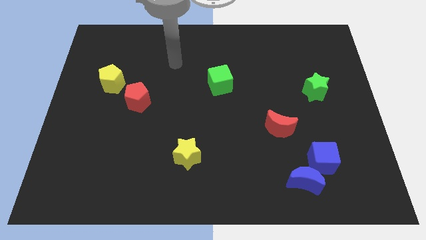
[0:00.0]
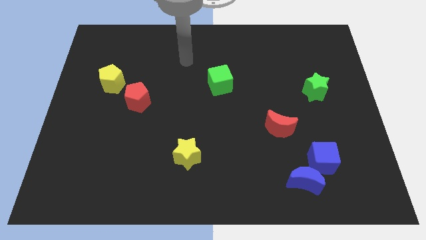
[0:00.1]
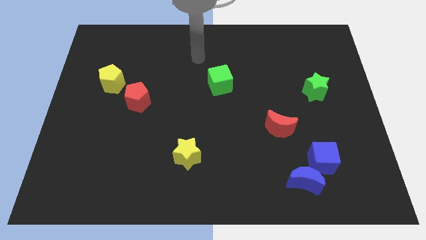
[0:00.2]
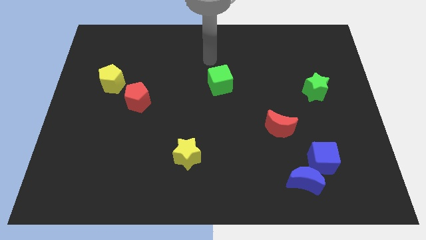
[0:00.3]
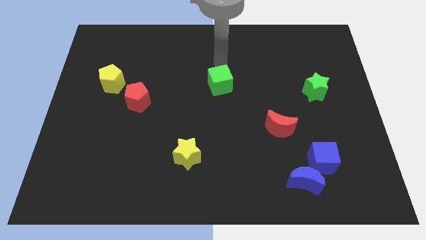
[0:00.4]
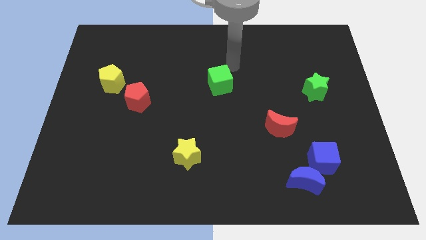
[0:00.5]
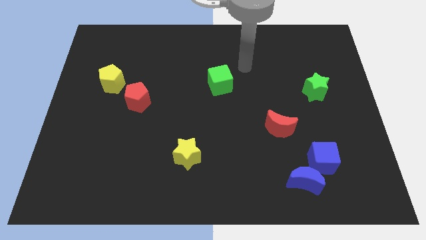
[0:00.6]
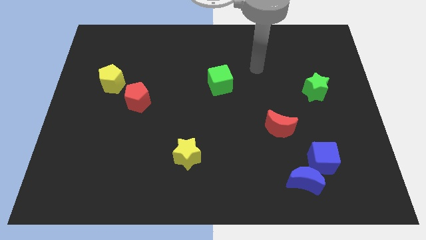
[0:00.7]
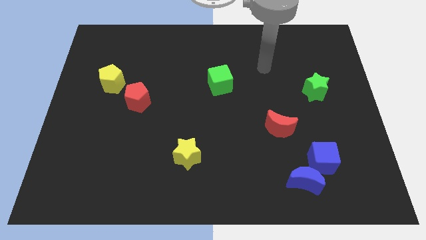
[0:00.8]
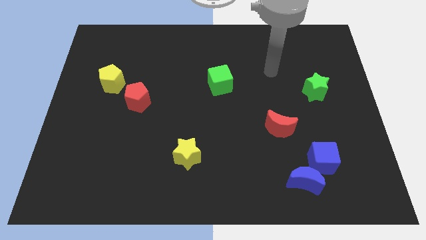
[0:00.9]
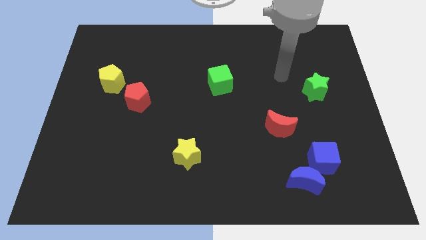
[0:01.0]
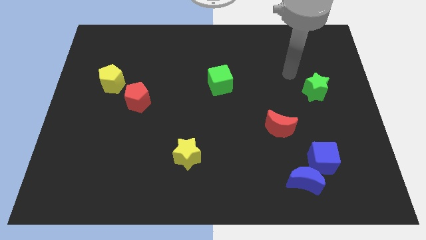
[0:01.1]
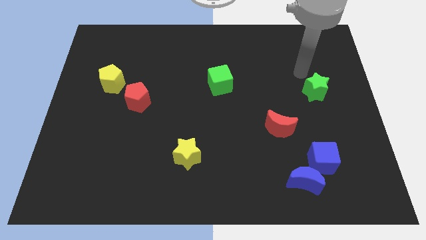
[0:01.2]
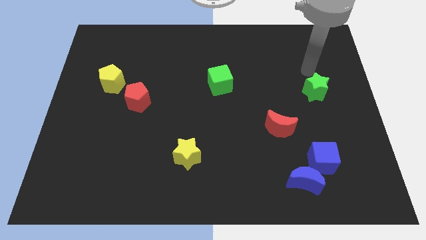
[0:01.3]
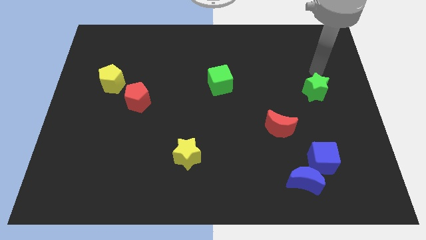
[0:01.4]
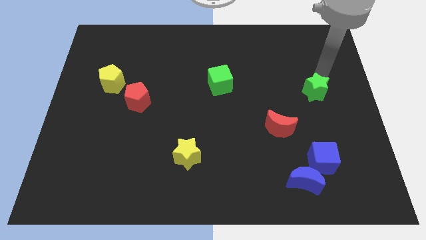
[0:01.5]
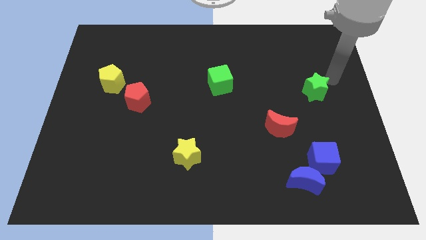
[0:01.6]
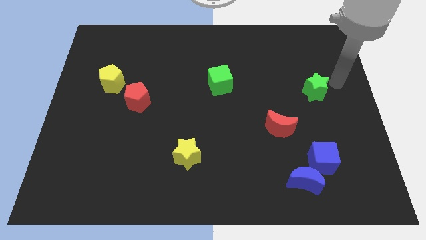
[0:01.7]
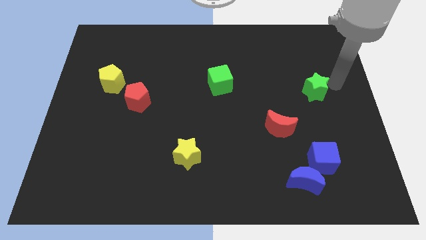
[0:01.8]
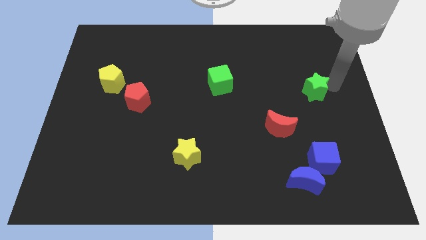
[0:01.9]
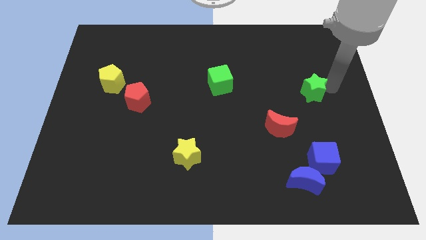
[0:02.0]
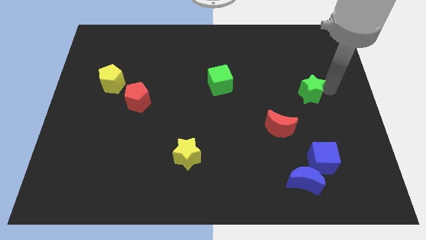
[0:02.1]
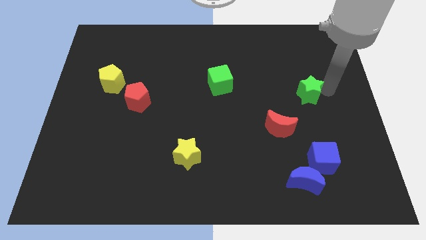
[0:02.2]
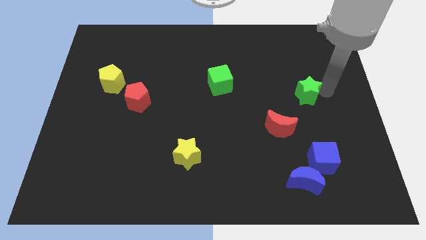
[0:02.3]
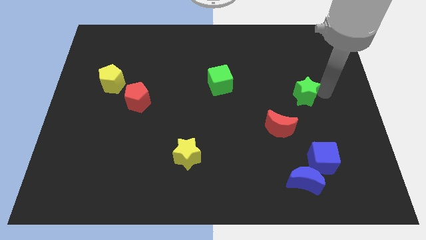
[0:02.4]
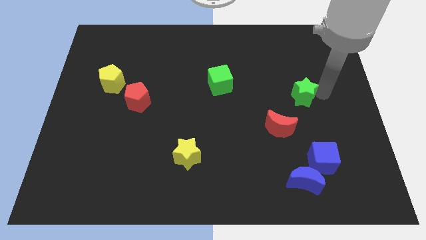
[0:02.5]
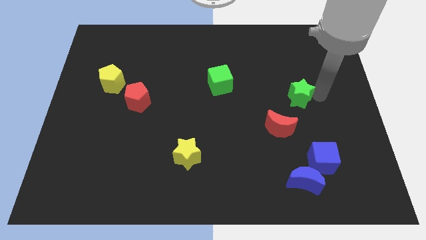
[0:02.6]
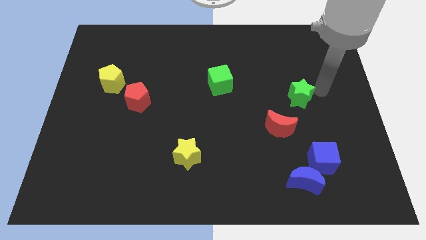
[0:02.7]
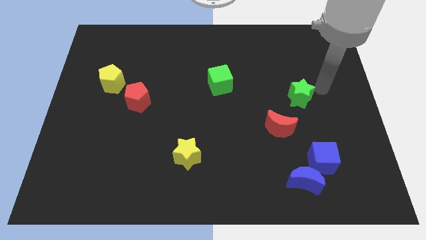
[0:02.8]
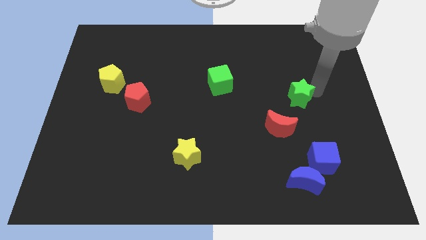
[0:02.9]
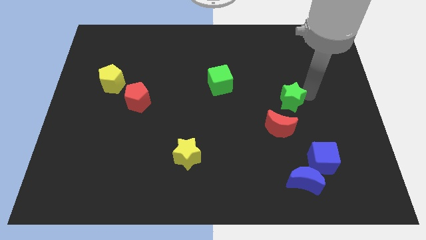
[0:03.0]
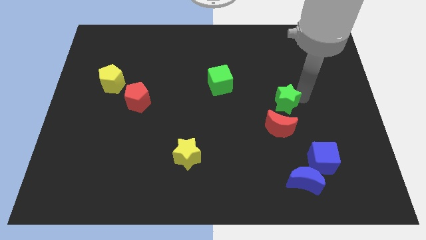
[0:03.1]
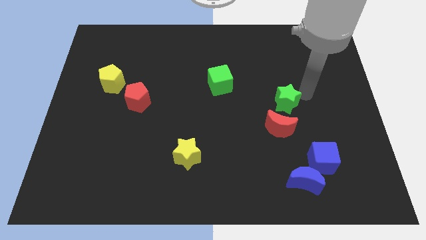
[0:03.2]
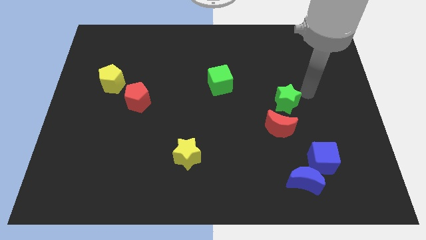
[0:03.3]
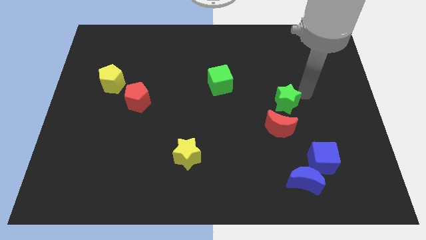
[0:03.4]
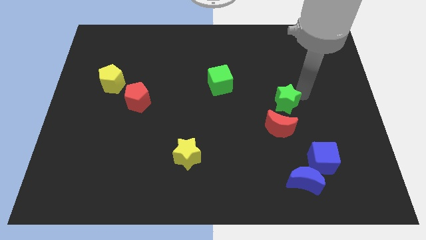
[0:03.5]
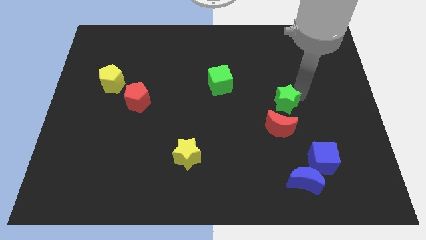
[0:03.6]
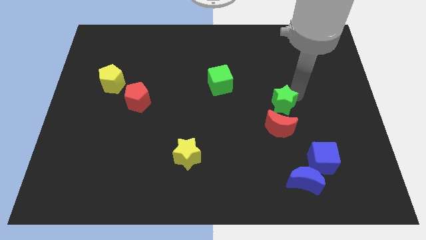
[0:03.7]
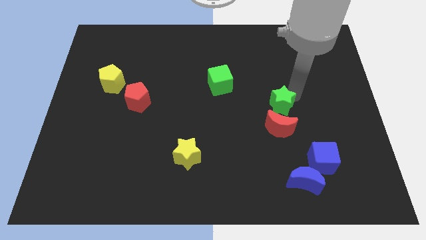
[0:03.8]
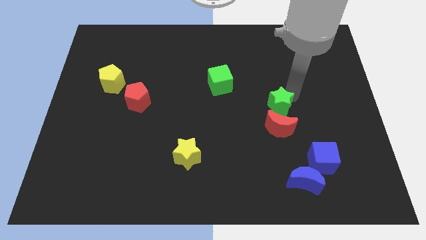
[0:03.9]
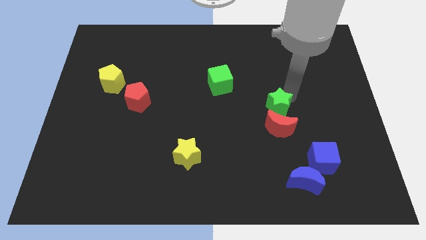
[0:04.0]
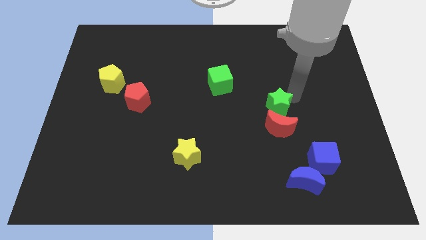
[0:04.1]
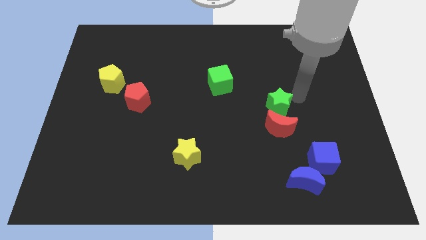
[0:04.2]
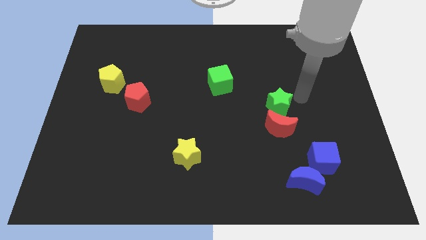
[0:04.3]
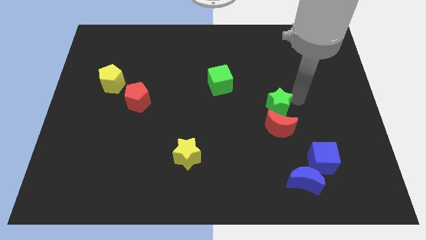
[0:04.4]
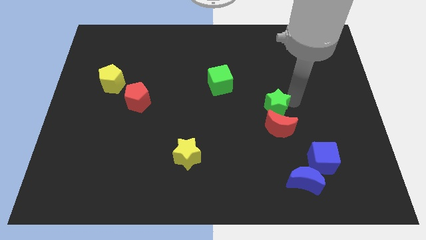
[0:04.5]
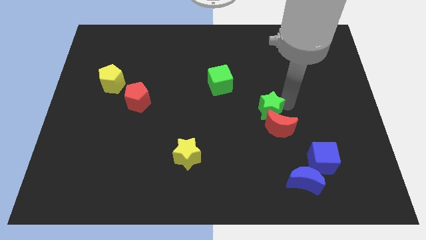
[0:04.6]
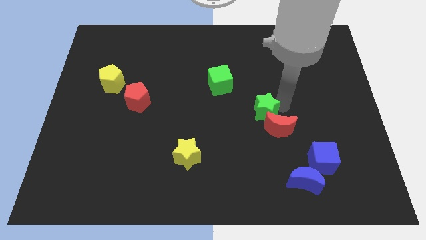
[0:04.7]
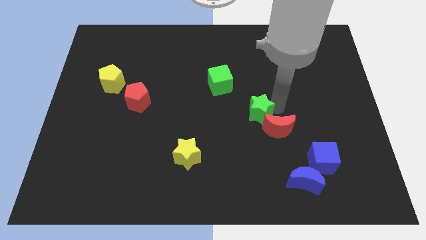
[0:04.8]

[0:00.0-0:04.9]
slide the green star left of the red moon

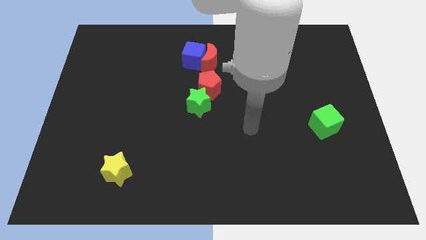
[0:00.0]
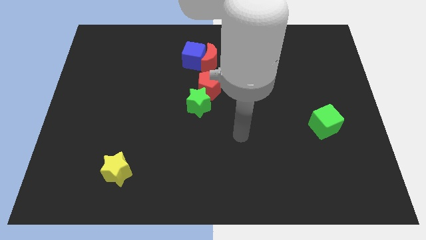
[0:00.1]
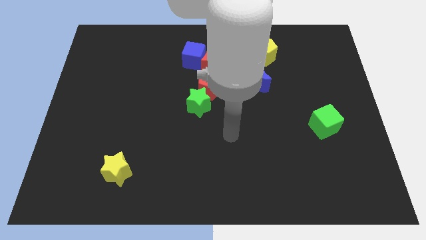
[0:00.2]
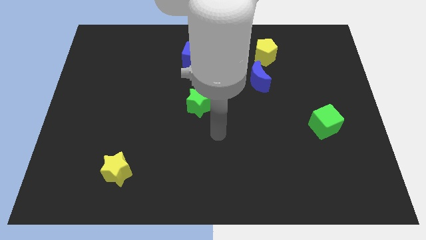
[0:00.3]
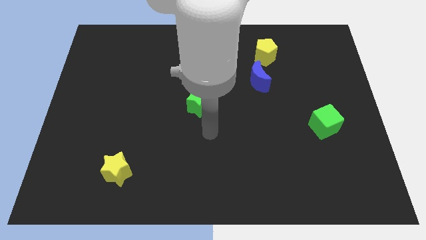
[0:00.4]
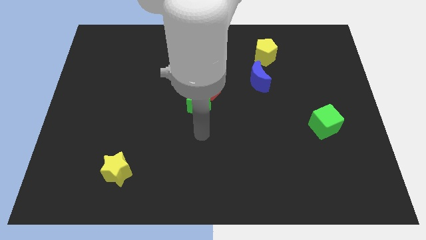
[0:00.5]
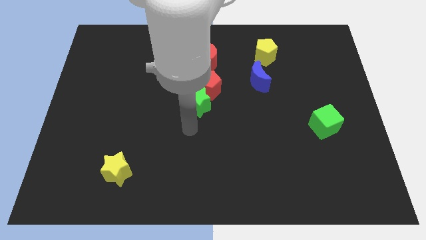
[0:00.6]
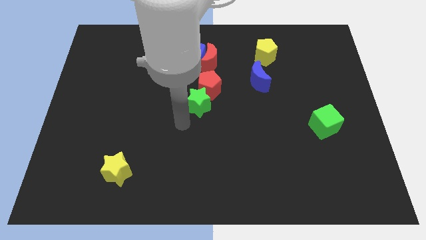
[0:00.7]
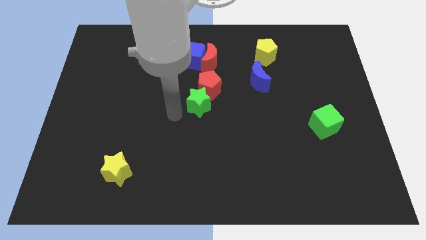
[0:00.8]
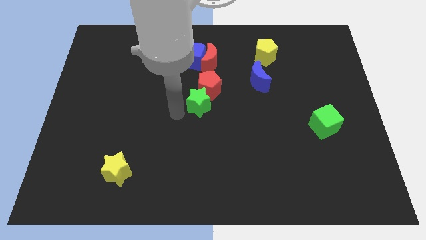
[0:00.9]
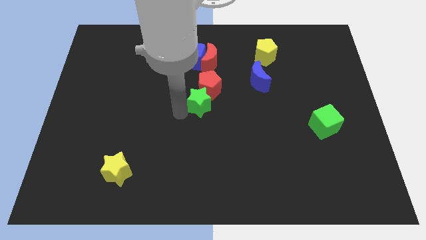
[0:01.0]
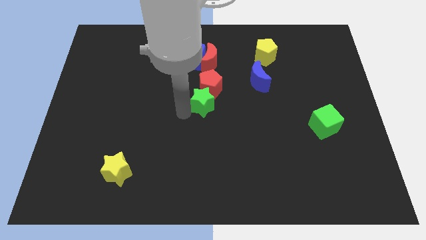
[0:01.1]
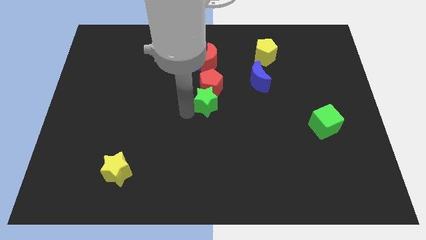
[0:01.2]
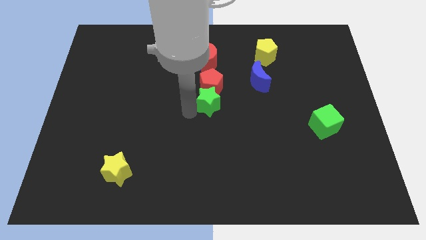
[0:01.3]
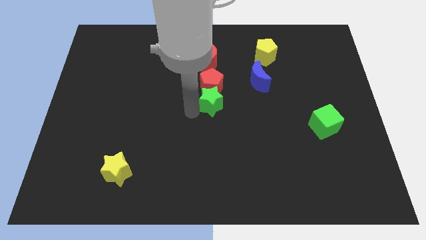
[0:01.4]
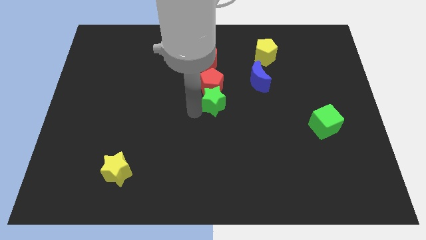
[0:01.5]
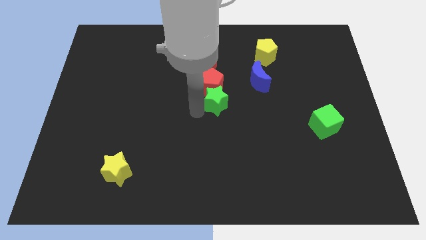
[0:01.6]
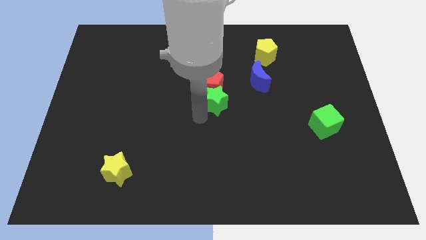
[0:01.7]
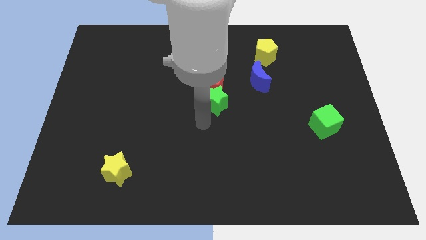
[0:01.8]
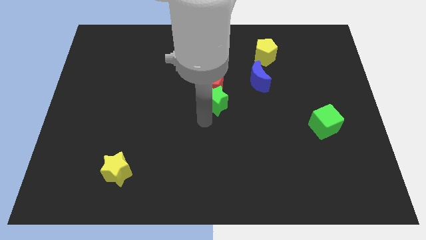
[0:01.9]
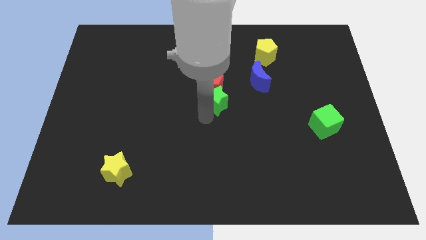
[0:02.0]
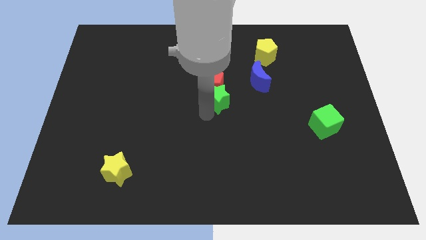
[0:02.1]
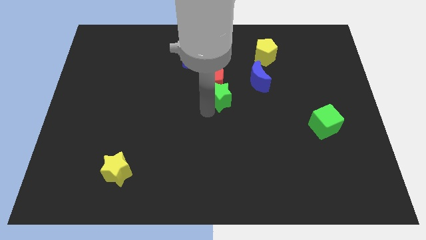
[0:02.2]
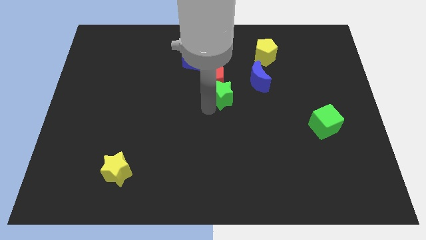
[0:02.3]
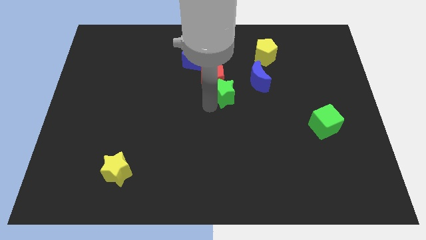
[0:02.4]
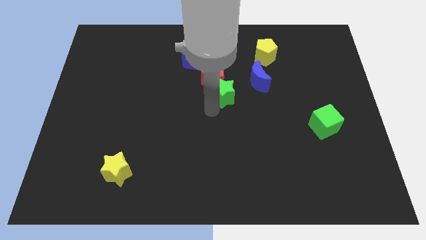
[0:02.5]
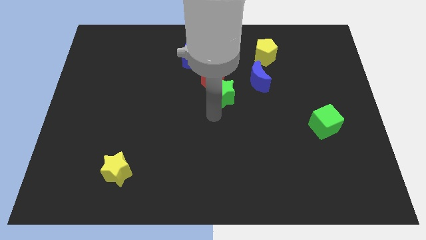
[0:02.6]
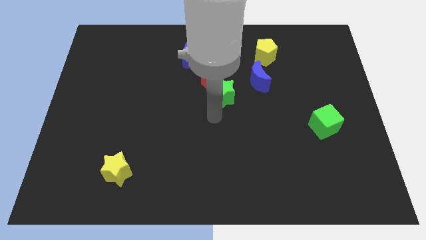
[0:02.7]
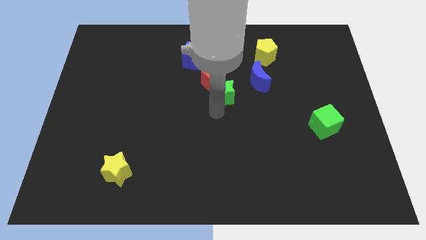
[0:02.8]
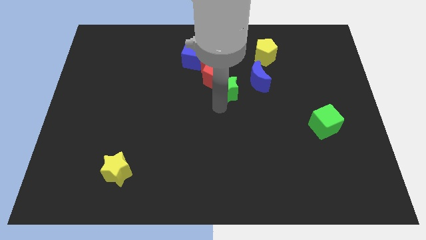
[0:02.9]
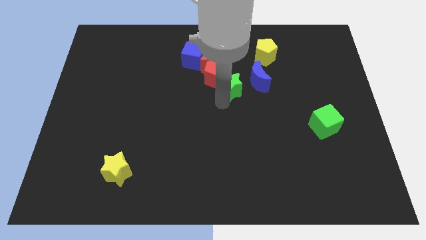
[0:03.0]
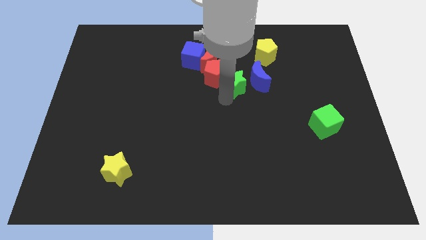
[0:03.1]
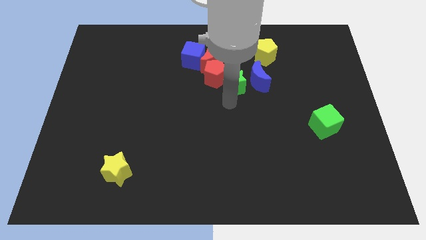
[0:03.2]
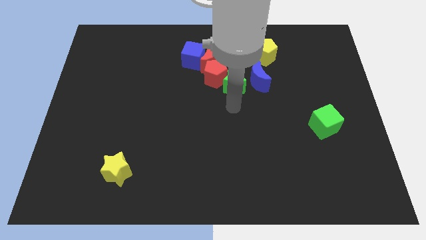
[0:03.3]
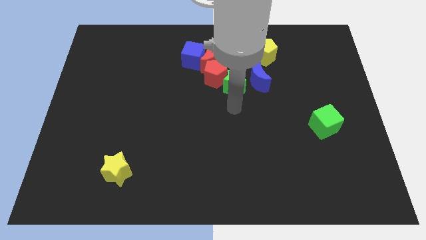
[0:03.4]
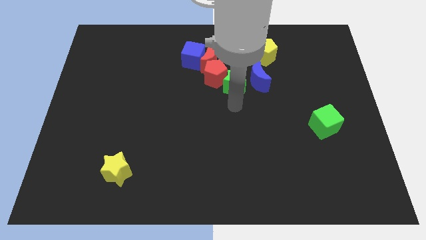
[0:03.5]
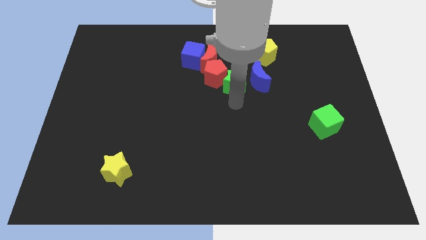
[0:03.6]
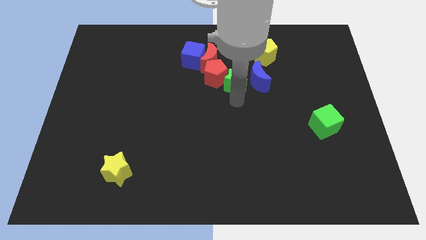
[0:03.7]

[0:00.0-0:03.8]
put the green star to the top left of the blue moon
